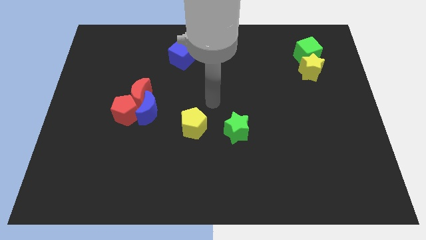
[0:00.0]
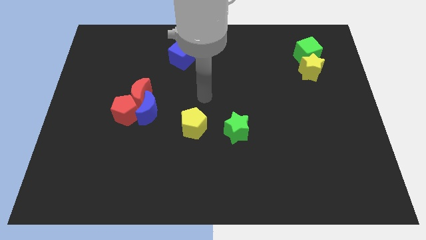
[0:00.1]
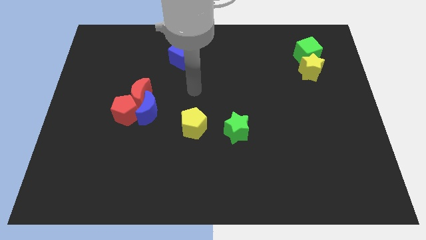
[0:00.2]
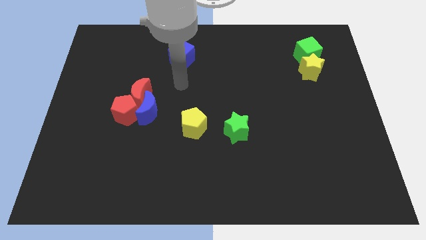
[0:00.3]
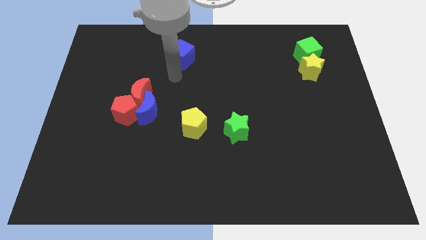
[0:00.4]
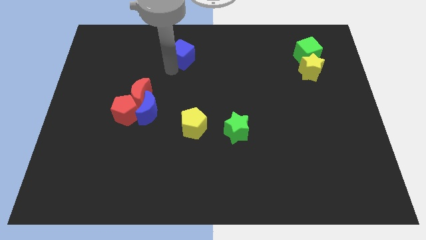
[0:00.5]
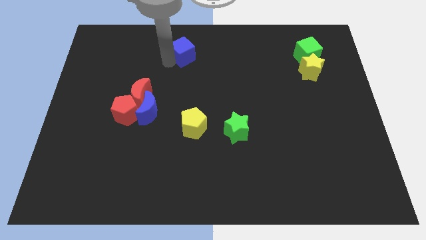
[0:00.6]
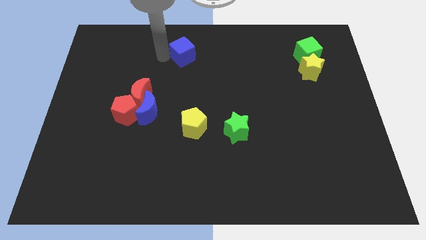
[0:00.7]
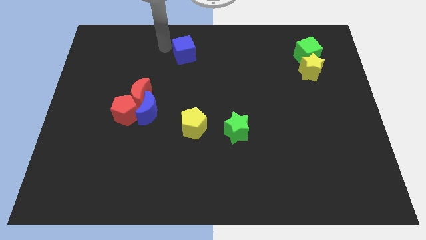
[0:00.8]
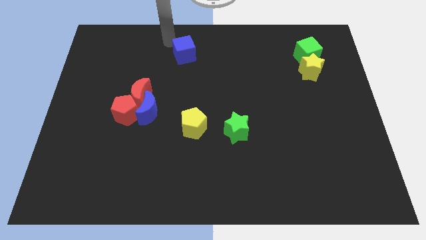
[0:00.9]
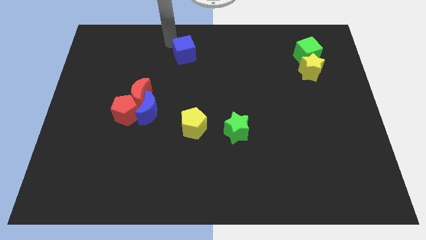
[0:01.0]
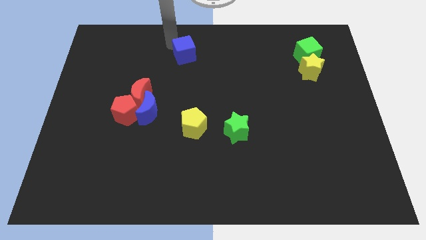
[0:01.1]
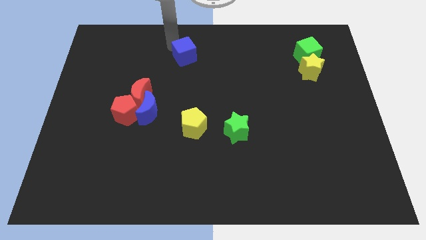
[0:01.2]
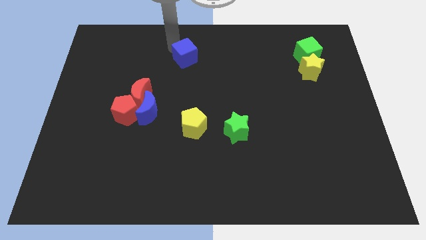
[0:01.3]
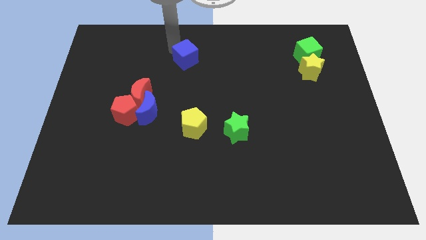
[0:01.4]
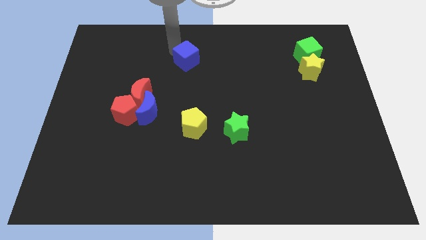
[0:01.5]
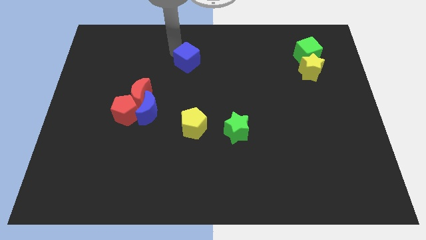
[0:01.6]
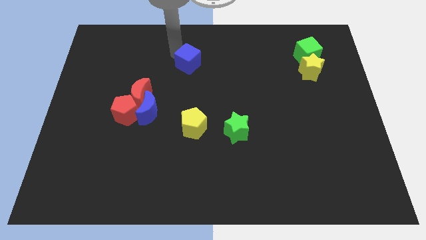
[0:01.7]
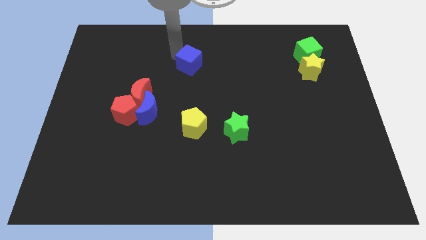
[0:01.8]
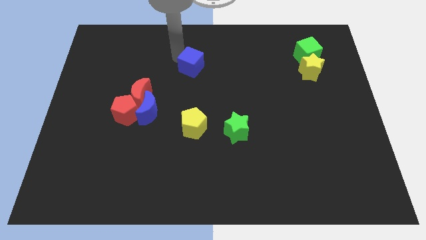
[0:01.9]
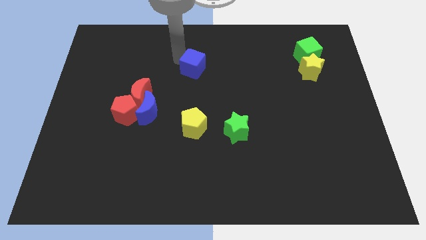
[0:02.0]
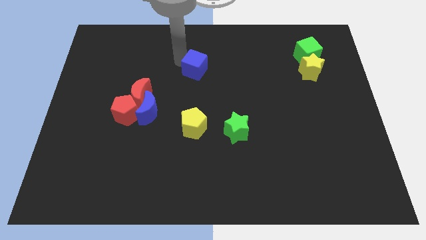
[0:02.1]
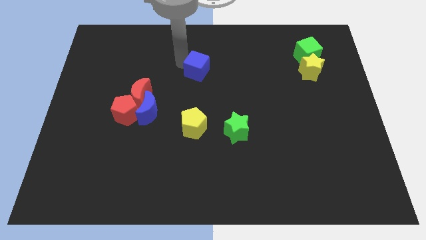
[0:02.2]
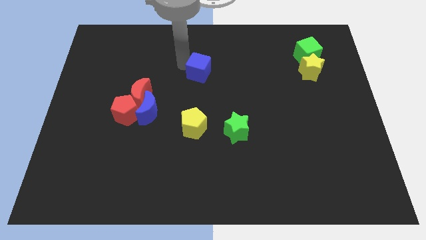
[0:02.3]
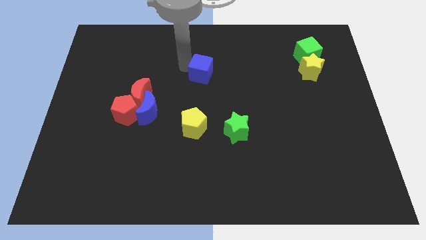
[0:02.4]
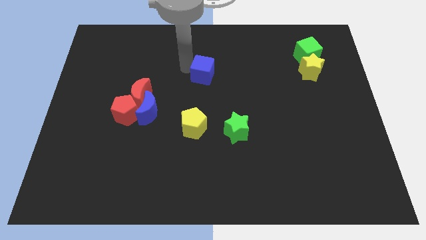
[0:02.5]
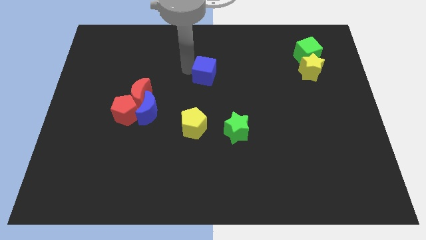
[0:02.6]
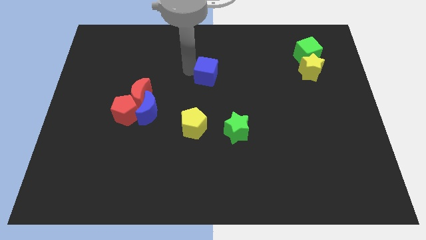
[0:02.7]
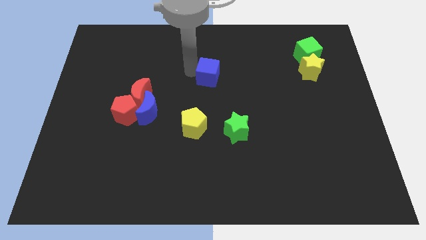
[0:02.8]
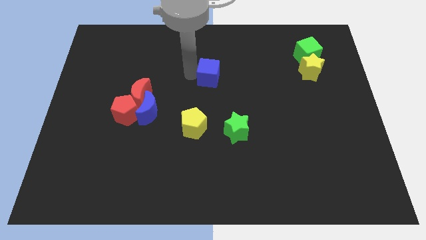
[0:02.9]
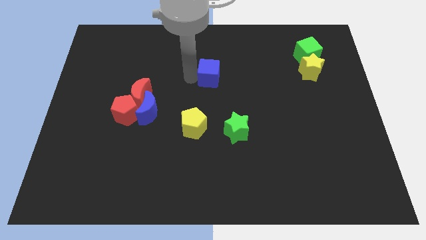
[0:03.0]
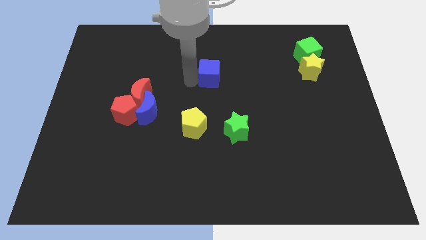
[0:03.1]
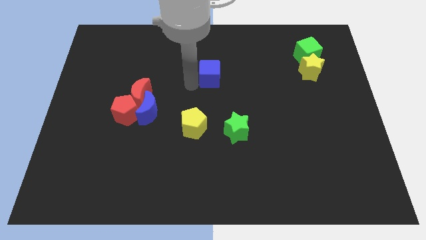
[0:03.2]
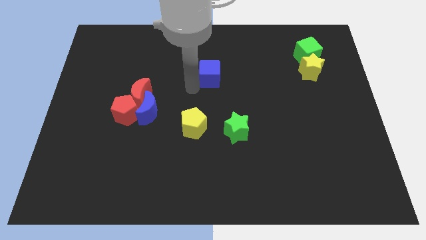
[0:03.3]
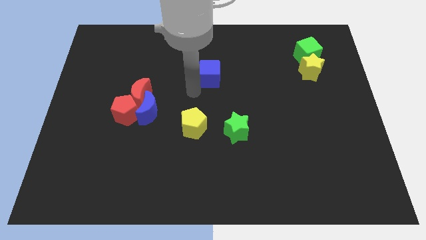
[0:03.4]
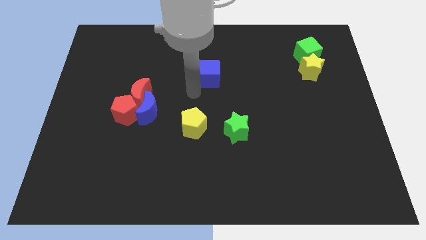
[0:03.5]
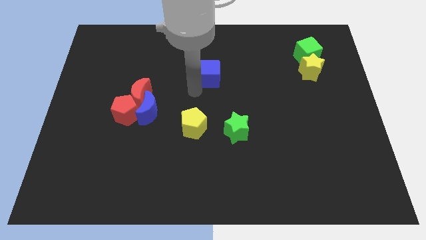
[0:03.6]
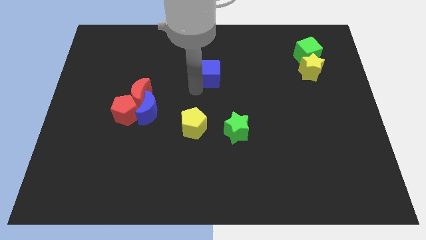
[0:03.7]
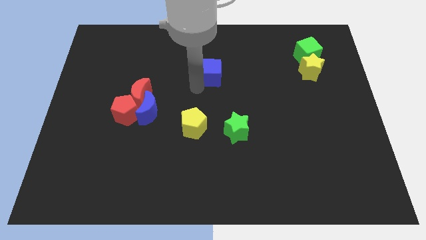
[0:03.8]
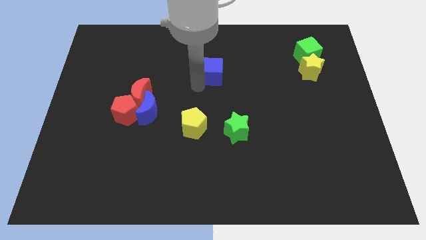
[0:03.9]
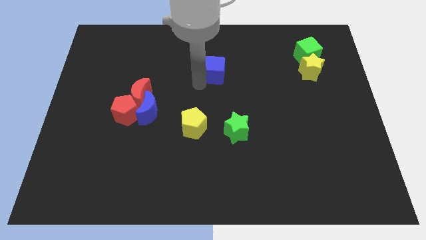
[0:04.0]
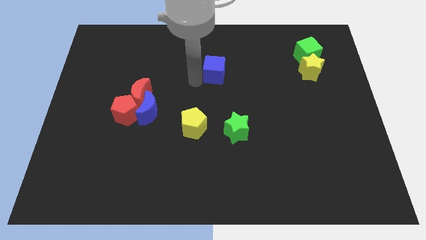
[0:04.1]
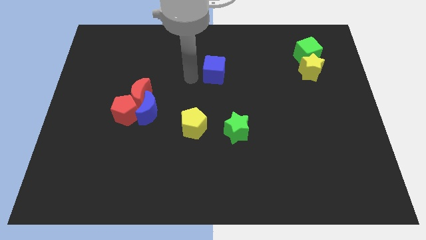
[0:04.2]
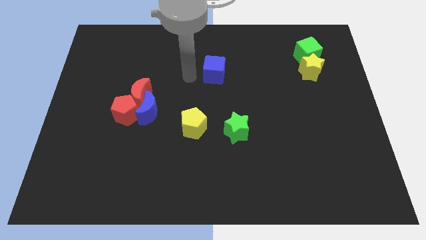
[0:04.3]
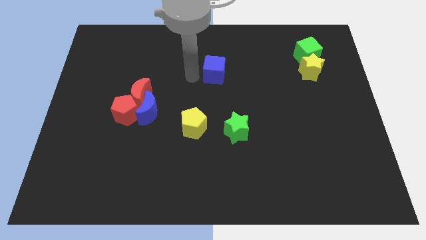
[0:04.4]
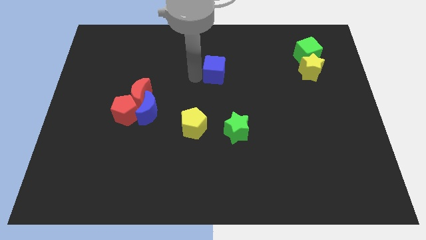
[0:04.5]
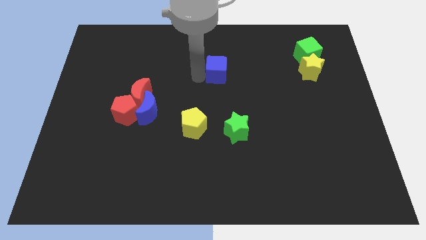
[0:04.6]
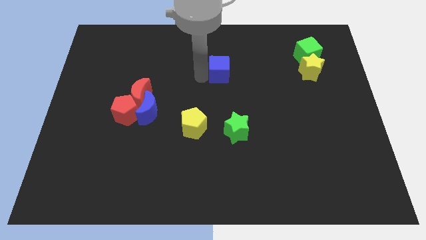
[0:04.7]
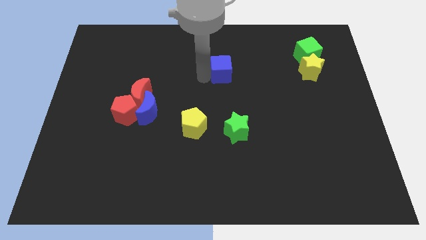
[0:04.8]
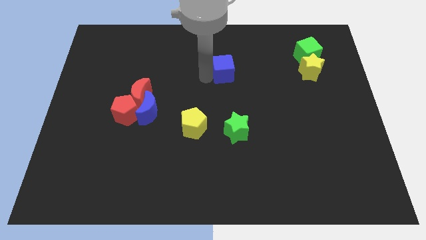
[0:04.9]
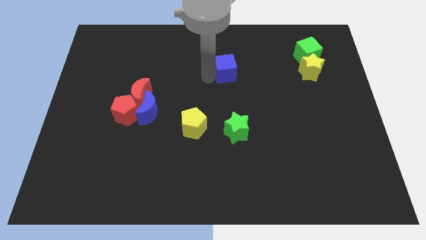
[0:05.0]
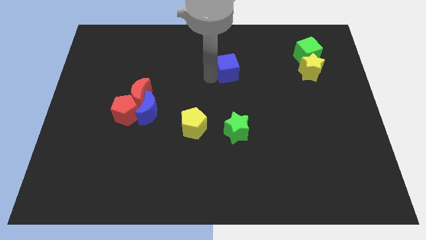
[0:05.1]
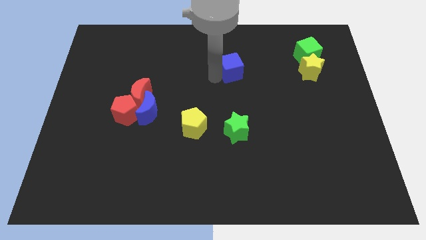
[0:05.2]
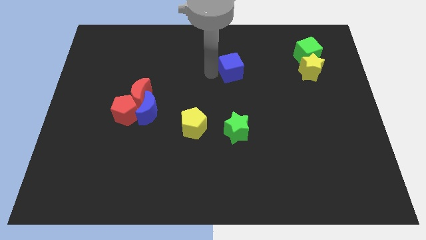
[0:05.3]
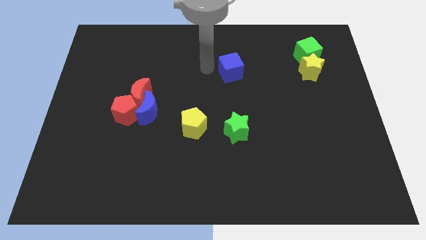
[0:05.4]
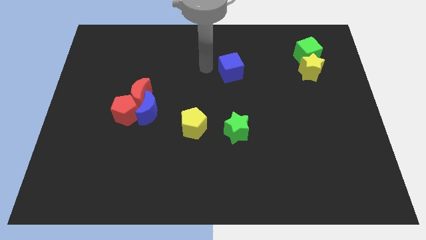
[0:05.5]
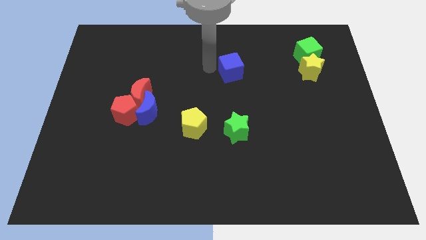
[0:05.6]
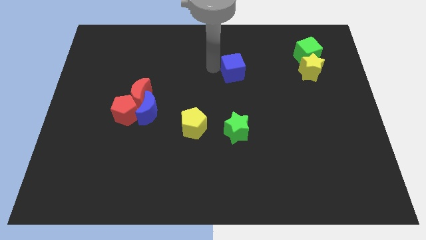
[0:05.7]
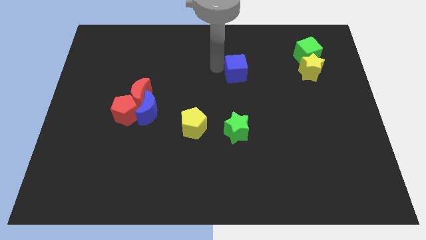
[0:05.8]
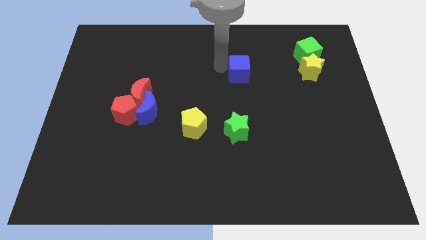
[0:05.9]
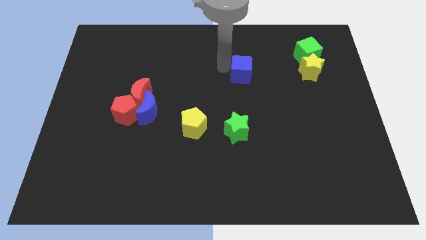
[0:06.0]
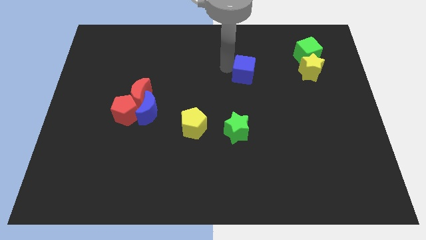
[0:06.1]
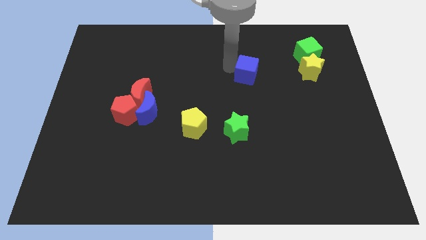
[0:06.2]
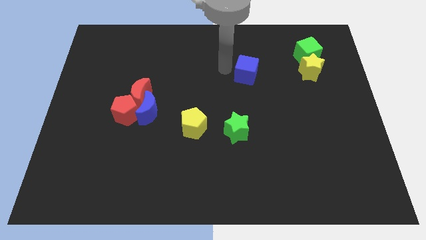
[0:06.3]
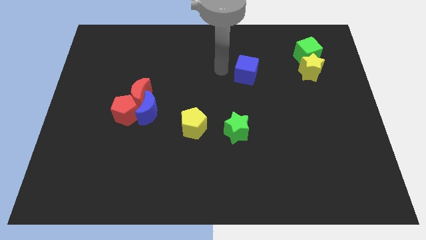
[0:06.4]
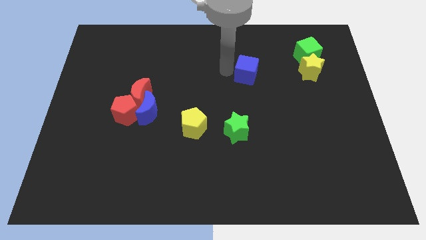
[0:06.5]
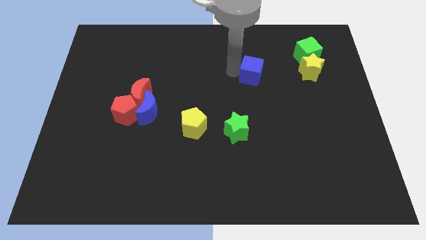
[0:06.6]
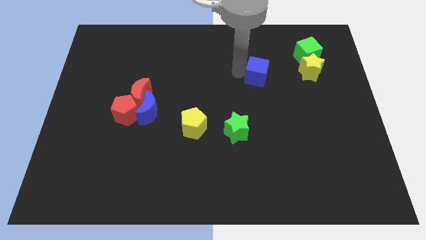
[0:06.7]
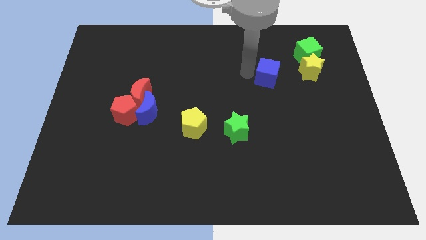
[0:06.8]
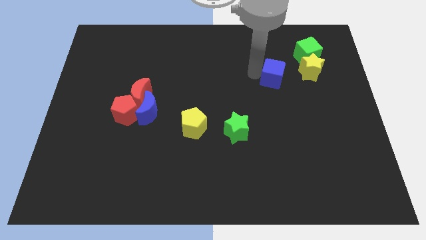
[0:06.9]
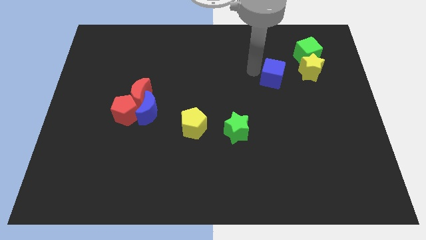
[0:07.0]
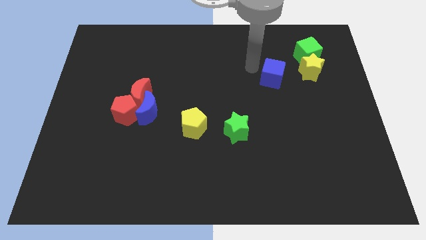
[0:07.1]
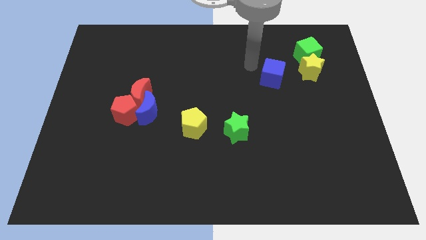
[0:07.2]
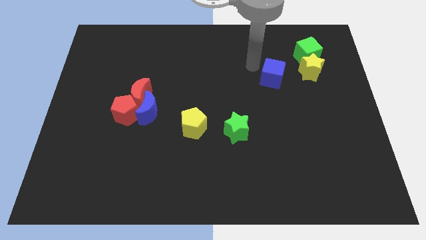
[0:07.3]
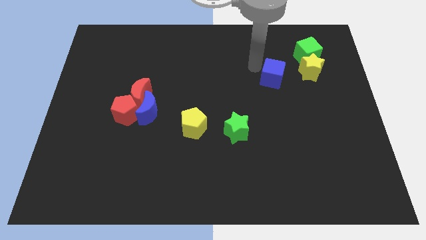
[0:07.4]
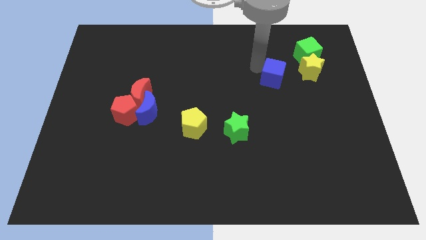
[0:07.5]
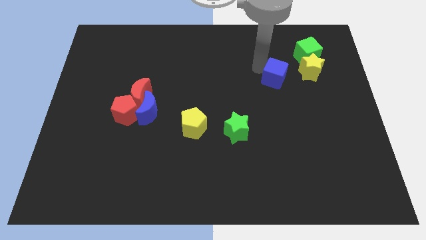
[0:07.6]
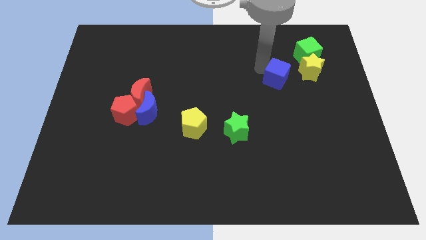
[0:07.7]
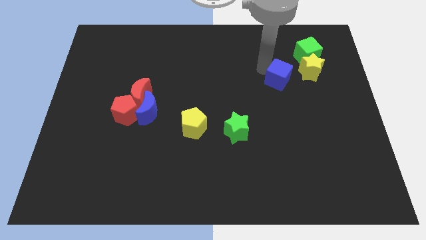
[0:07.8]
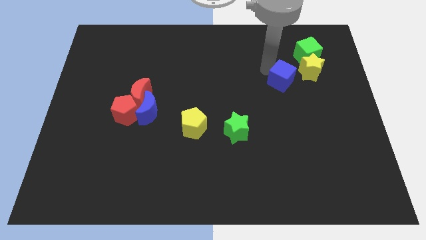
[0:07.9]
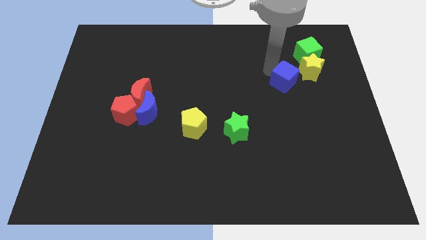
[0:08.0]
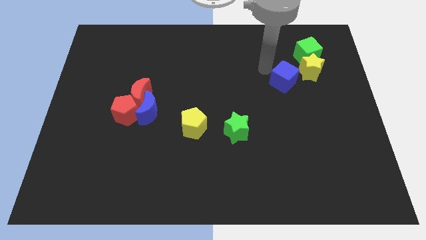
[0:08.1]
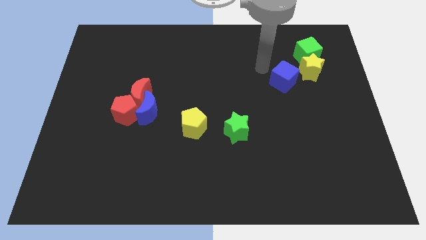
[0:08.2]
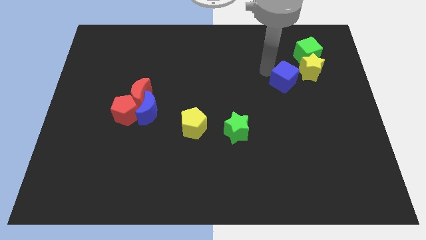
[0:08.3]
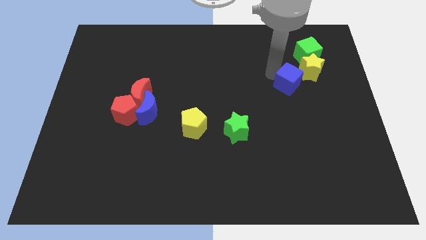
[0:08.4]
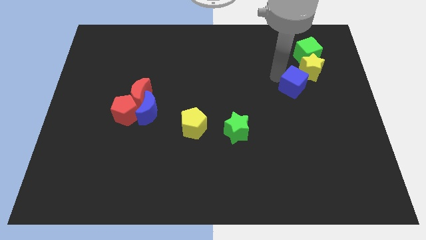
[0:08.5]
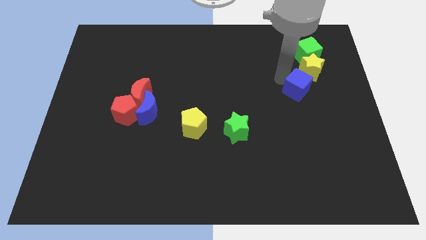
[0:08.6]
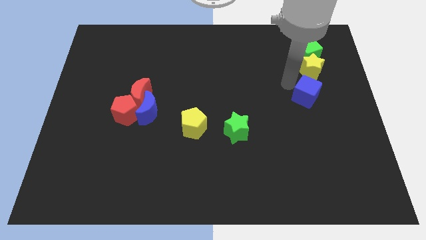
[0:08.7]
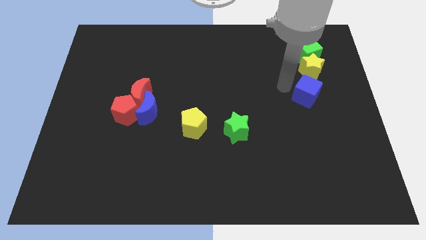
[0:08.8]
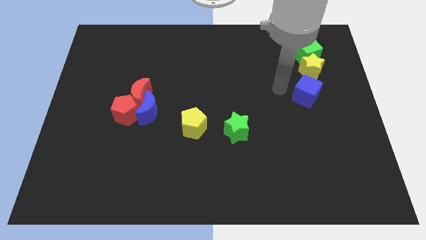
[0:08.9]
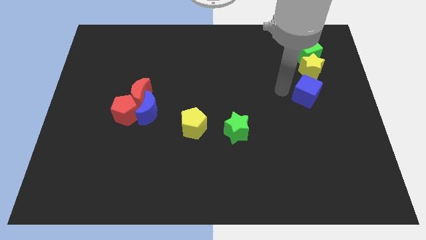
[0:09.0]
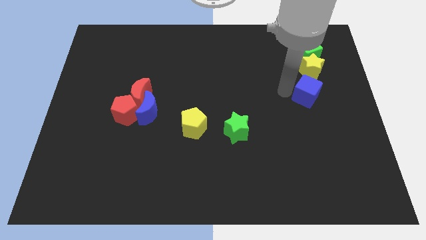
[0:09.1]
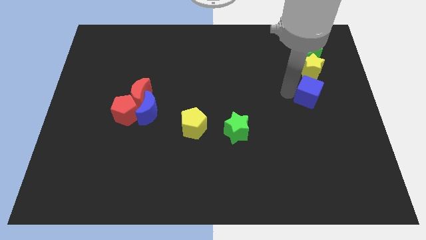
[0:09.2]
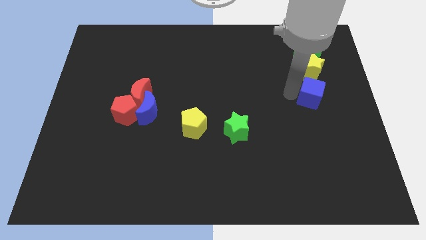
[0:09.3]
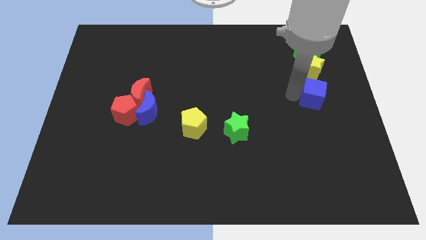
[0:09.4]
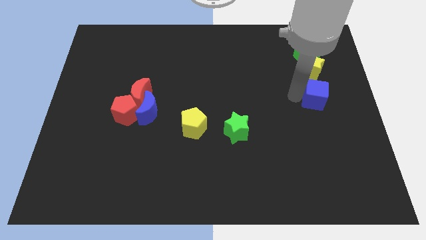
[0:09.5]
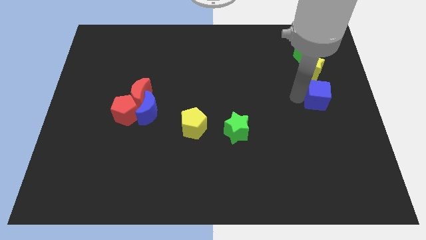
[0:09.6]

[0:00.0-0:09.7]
move the blue cube to the right side of the board
